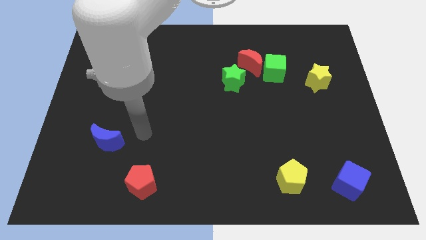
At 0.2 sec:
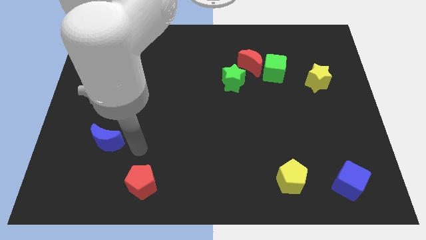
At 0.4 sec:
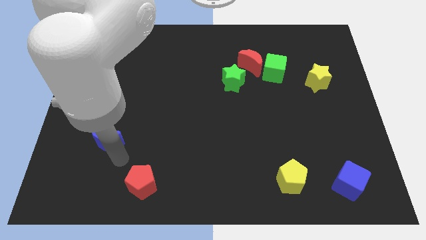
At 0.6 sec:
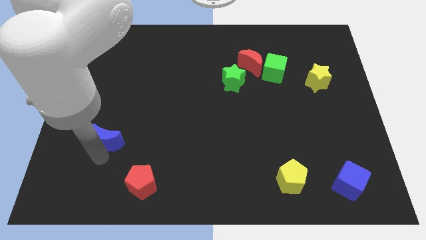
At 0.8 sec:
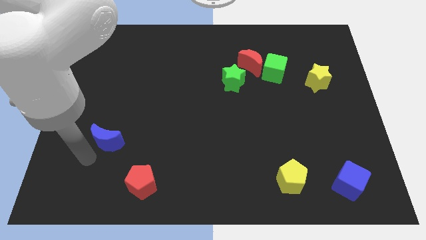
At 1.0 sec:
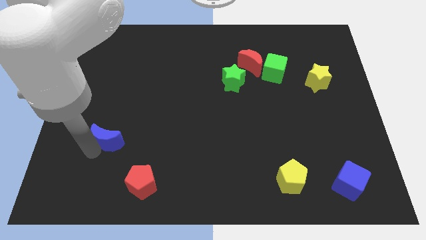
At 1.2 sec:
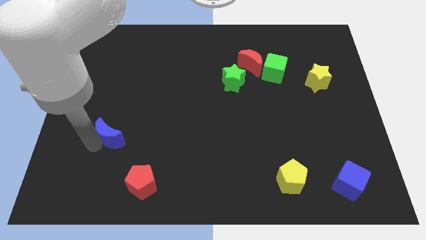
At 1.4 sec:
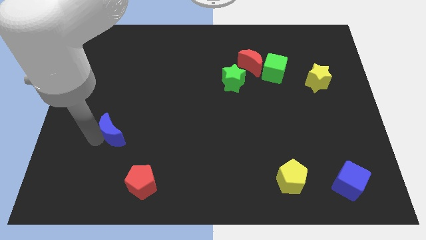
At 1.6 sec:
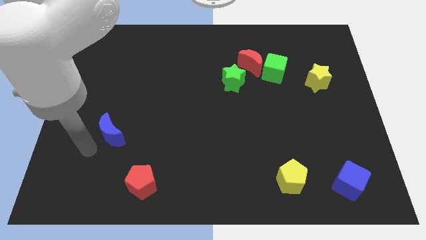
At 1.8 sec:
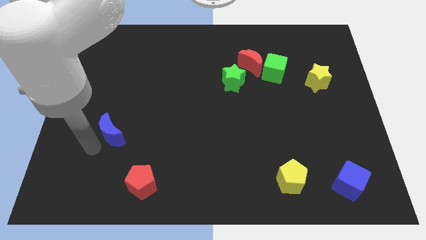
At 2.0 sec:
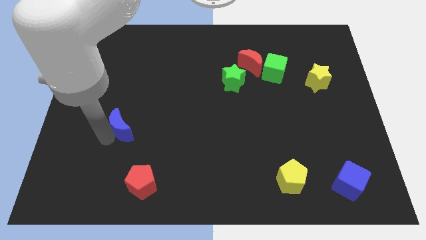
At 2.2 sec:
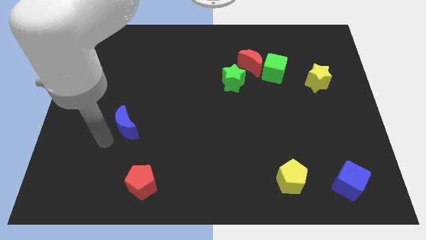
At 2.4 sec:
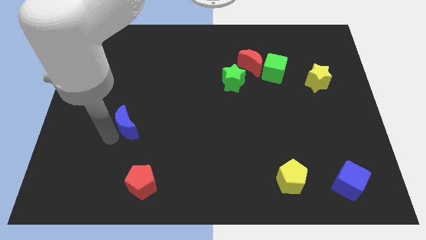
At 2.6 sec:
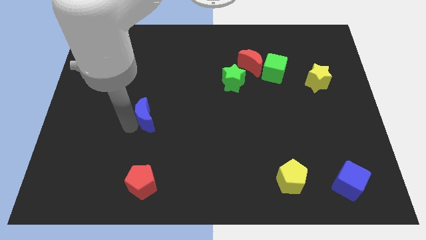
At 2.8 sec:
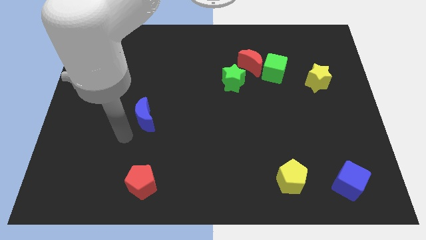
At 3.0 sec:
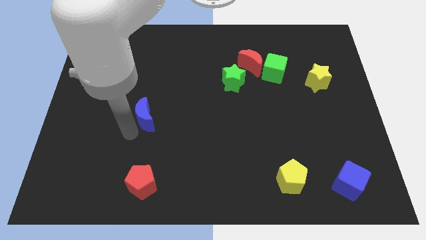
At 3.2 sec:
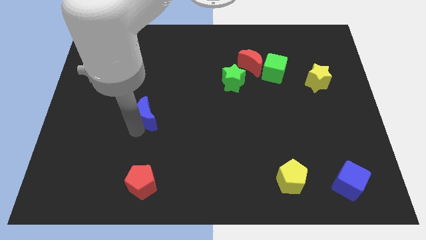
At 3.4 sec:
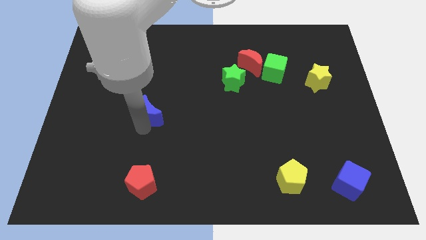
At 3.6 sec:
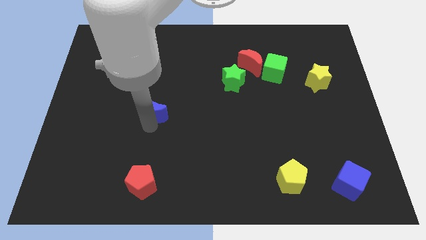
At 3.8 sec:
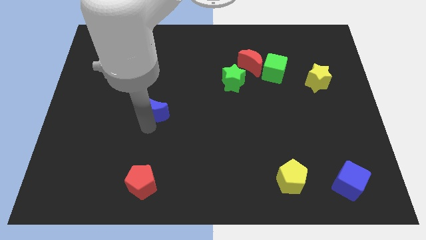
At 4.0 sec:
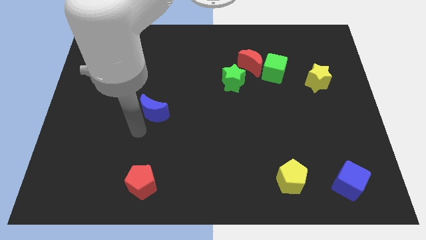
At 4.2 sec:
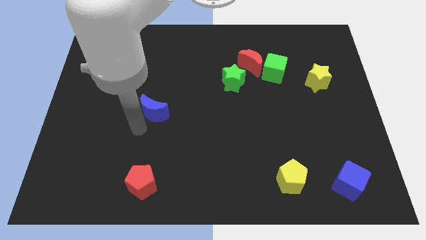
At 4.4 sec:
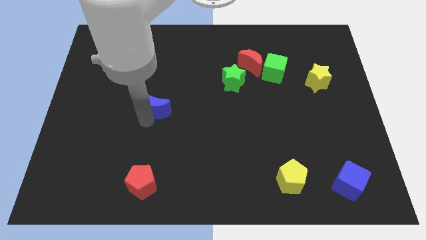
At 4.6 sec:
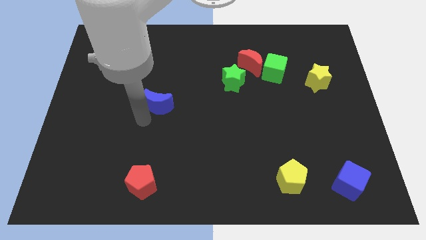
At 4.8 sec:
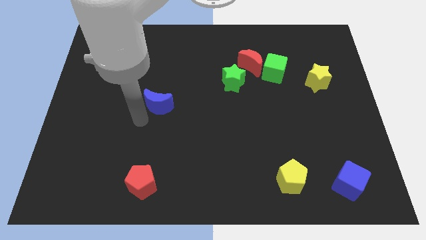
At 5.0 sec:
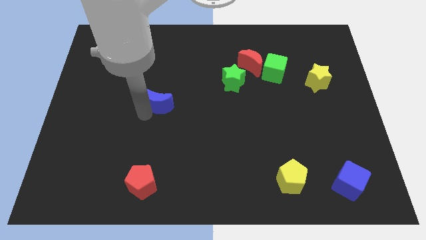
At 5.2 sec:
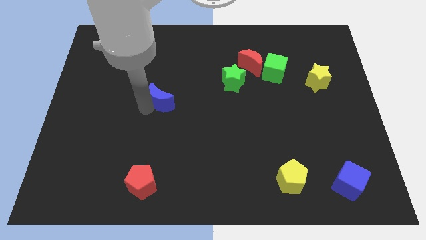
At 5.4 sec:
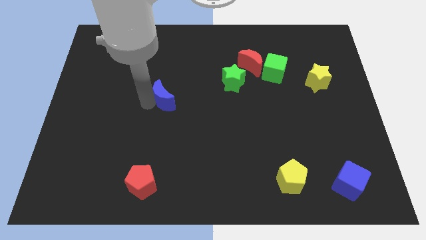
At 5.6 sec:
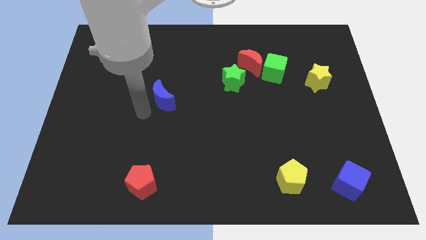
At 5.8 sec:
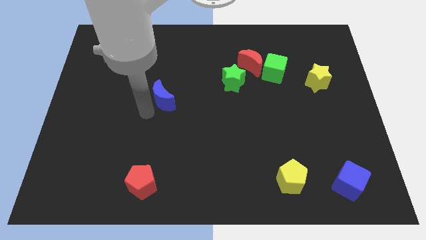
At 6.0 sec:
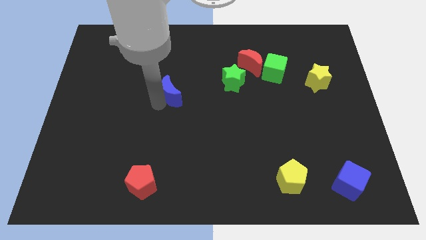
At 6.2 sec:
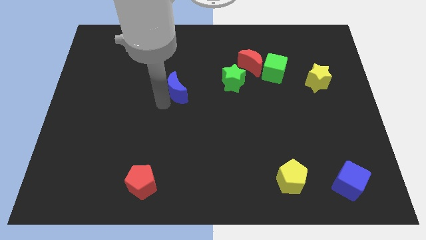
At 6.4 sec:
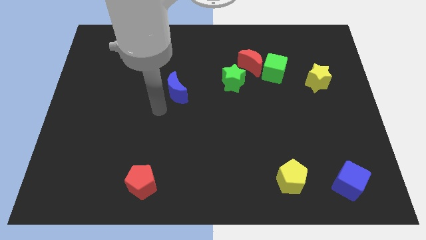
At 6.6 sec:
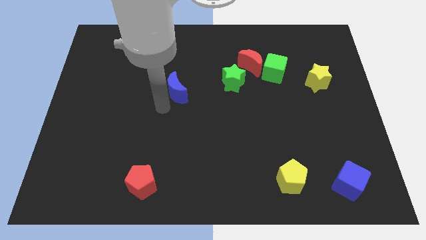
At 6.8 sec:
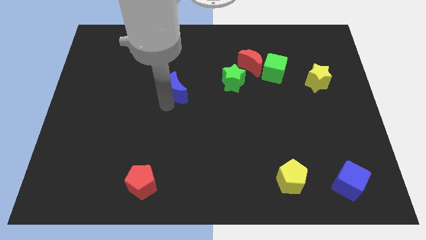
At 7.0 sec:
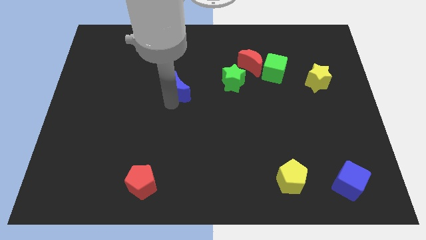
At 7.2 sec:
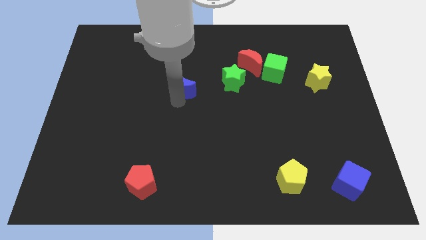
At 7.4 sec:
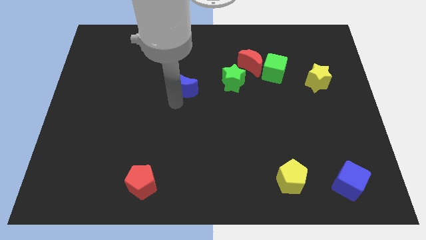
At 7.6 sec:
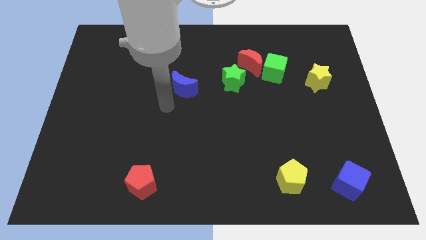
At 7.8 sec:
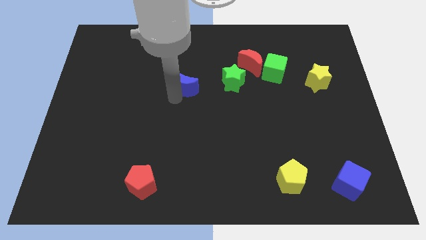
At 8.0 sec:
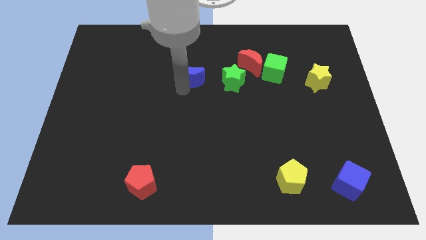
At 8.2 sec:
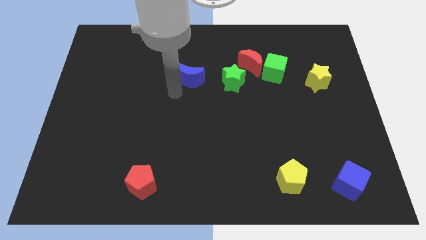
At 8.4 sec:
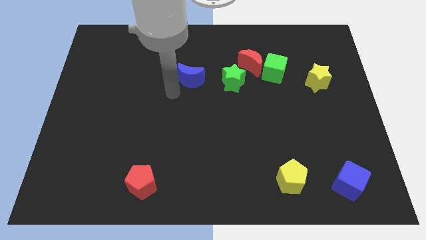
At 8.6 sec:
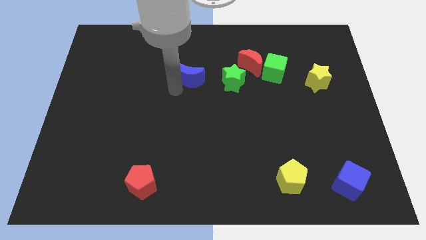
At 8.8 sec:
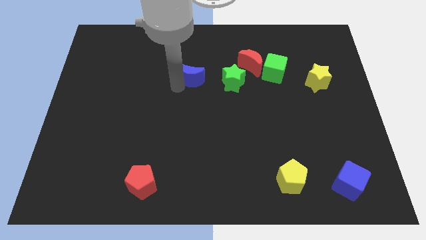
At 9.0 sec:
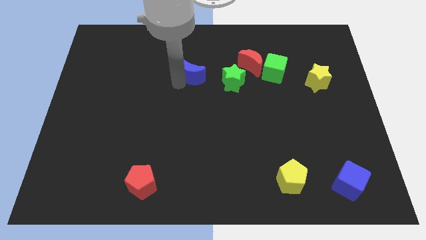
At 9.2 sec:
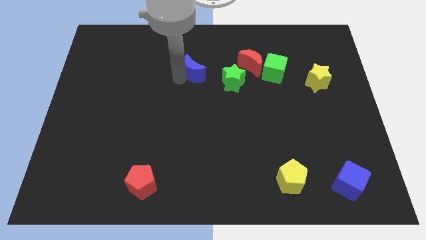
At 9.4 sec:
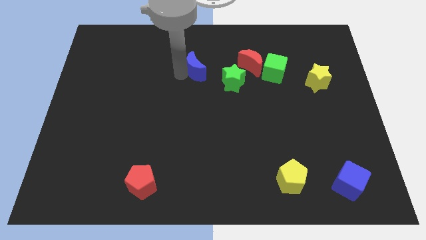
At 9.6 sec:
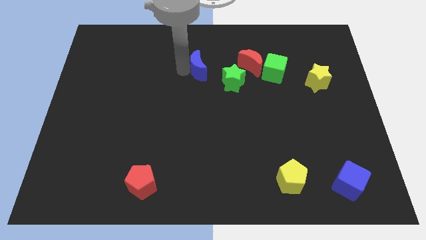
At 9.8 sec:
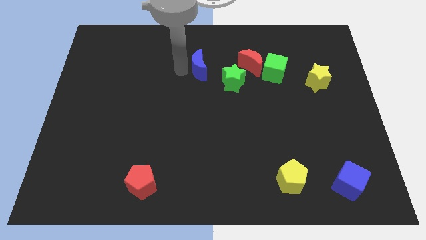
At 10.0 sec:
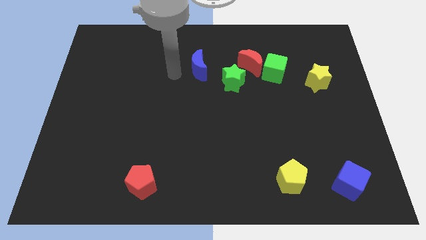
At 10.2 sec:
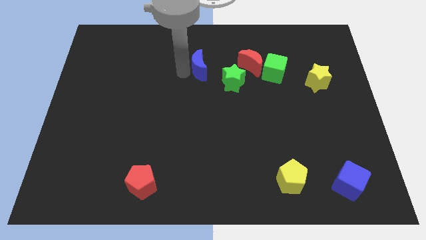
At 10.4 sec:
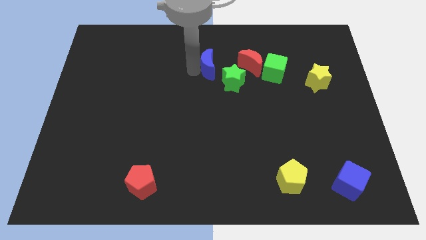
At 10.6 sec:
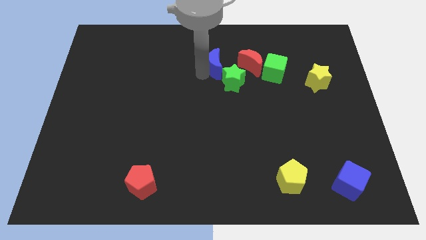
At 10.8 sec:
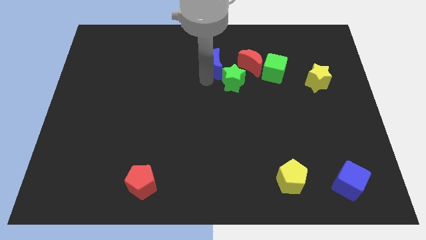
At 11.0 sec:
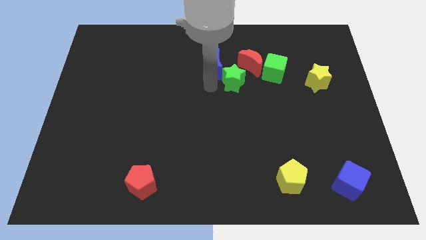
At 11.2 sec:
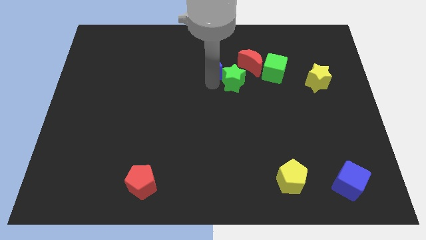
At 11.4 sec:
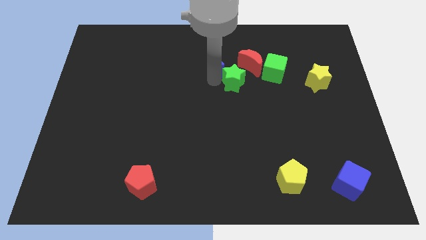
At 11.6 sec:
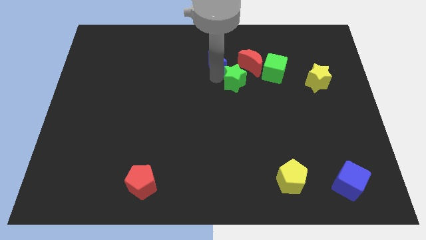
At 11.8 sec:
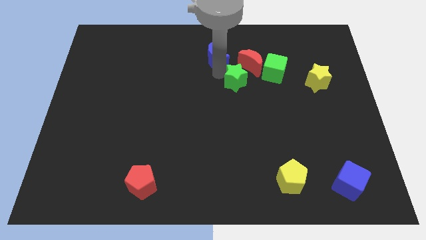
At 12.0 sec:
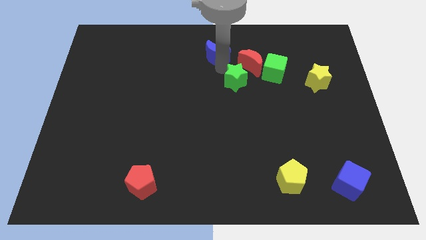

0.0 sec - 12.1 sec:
push the blue moon to the towards your base

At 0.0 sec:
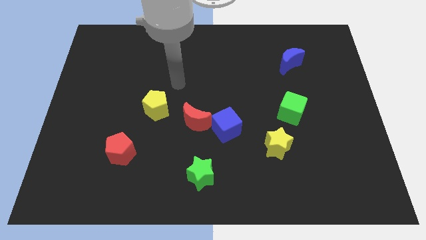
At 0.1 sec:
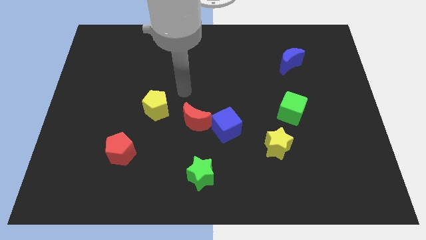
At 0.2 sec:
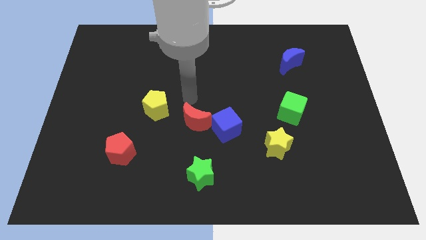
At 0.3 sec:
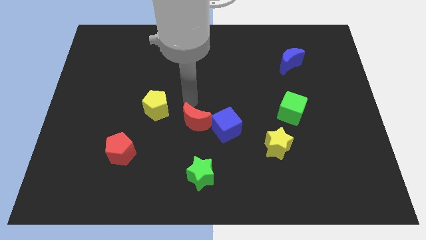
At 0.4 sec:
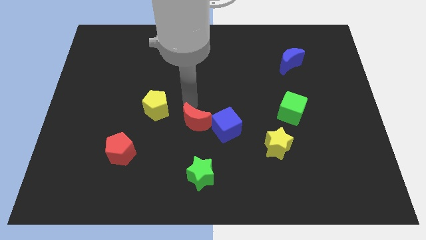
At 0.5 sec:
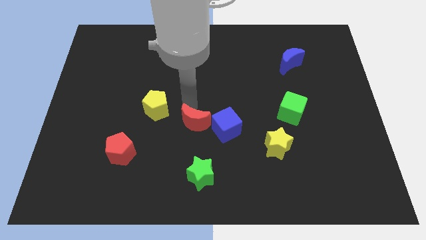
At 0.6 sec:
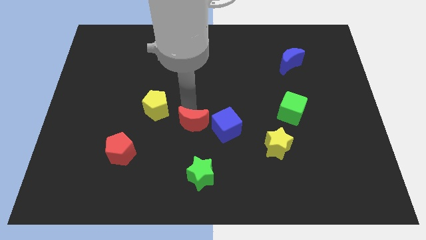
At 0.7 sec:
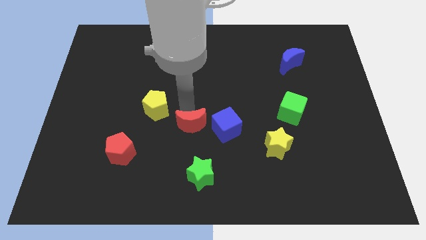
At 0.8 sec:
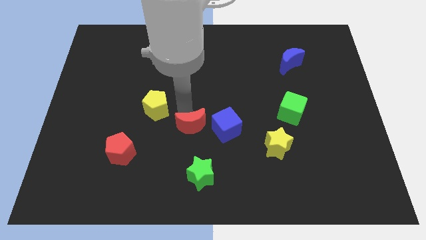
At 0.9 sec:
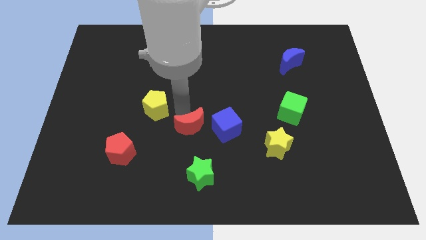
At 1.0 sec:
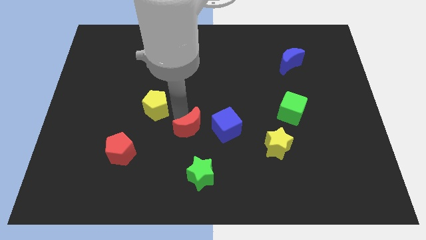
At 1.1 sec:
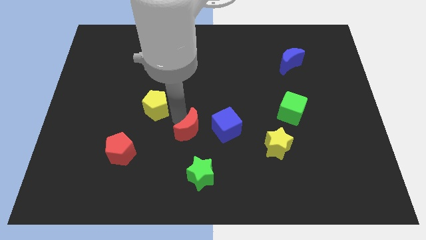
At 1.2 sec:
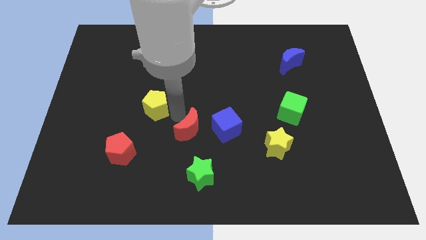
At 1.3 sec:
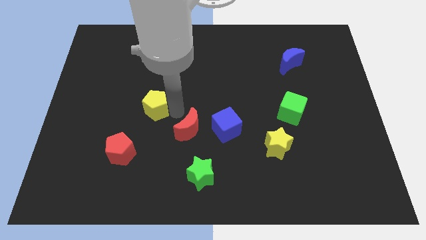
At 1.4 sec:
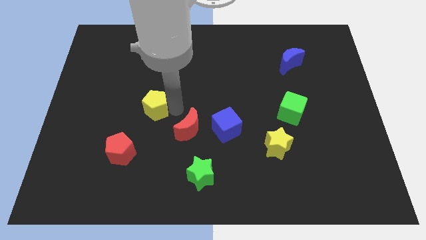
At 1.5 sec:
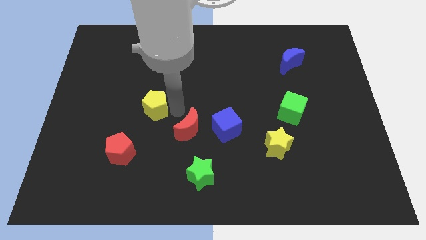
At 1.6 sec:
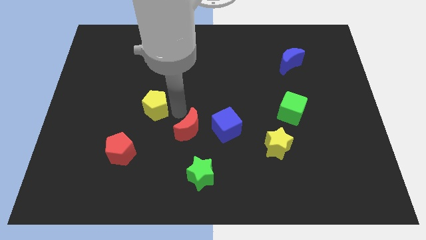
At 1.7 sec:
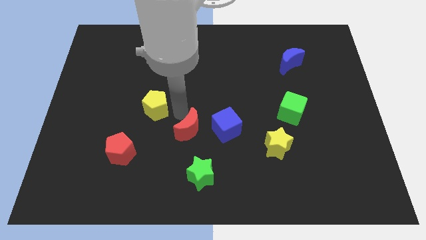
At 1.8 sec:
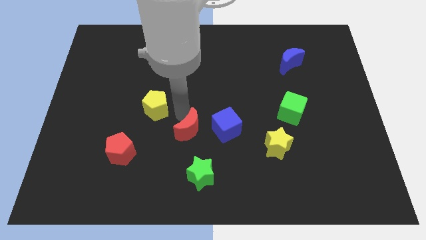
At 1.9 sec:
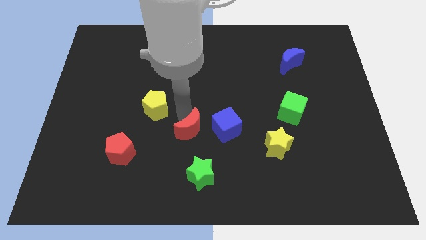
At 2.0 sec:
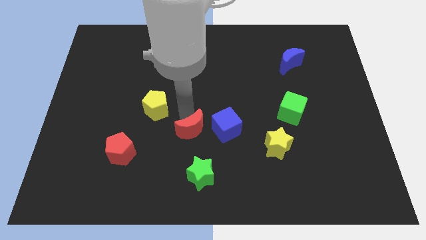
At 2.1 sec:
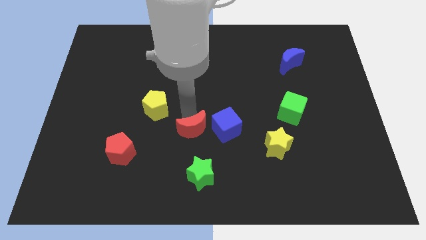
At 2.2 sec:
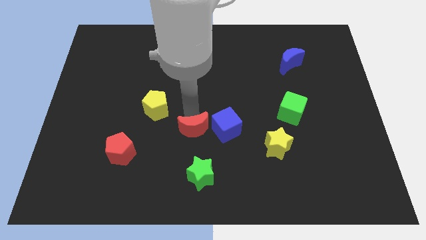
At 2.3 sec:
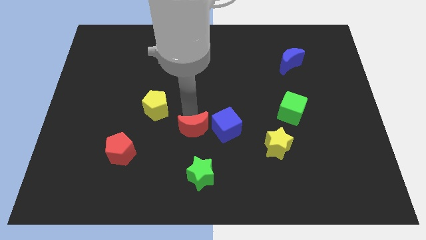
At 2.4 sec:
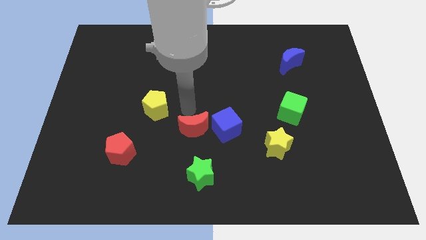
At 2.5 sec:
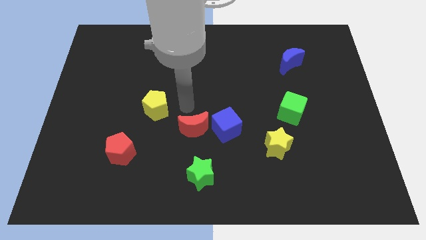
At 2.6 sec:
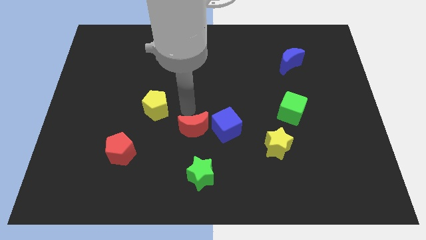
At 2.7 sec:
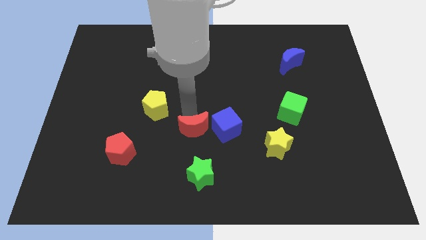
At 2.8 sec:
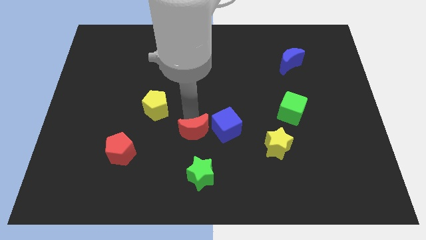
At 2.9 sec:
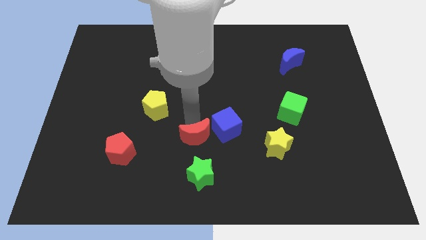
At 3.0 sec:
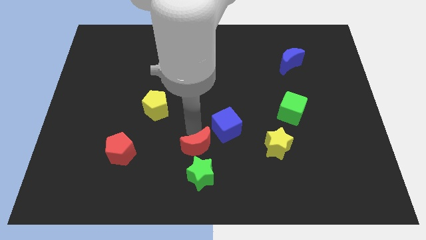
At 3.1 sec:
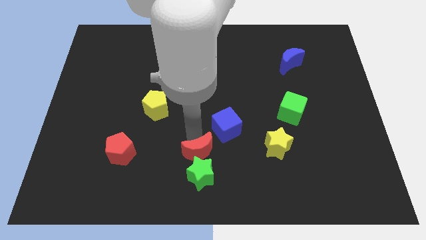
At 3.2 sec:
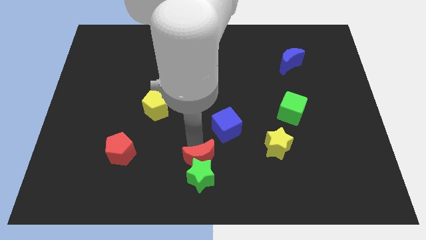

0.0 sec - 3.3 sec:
move the red moon to the bottom side
